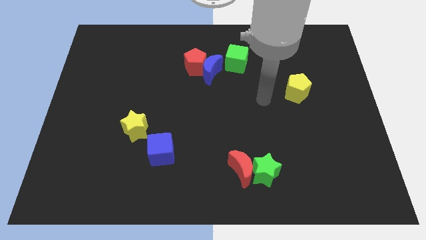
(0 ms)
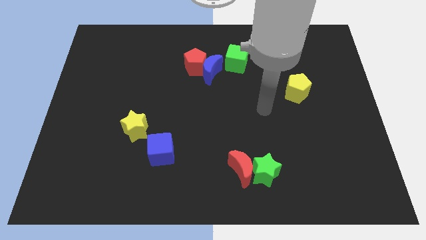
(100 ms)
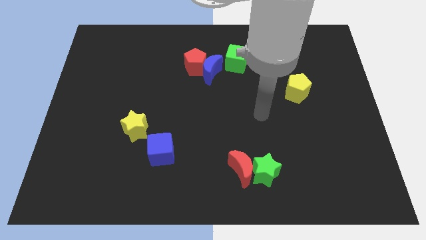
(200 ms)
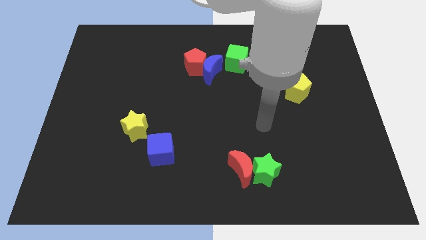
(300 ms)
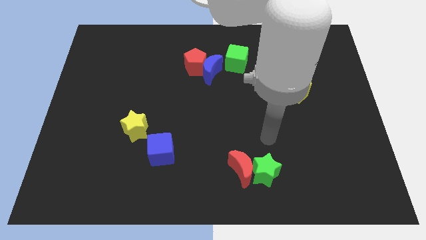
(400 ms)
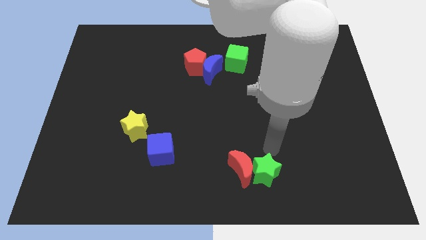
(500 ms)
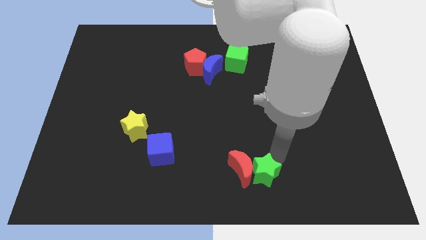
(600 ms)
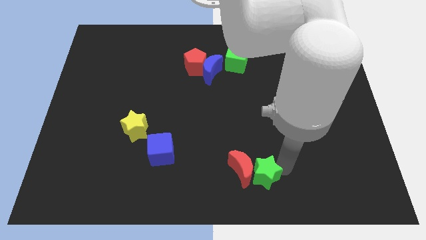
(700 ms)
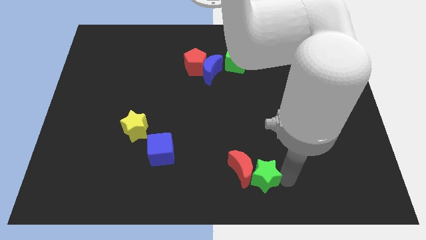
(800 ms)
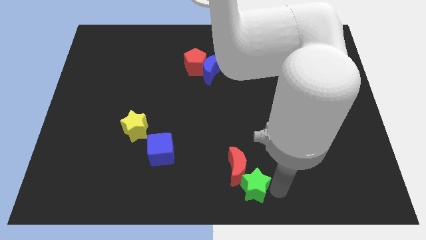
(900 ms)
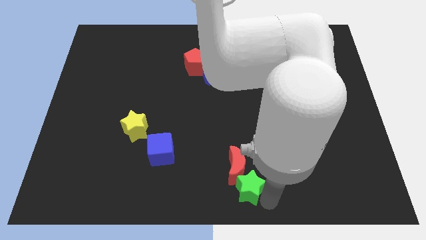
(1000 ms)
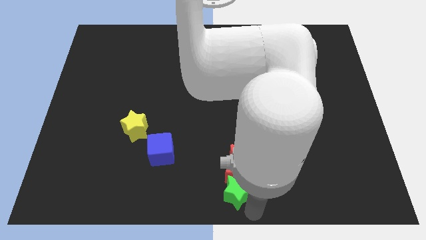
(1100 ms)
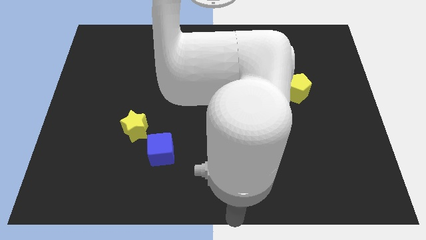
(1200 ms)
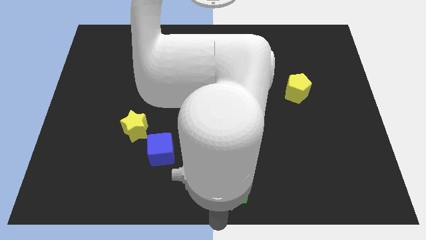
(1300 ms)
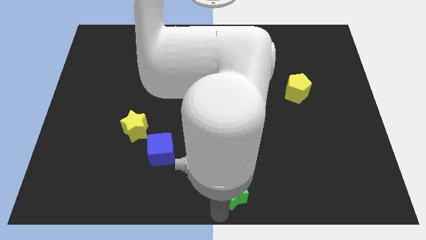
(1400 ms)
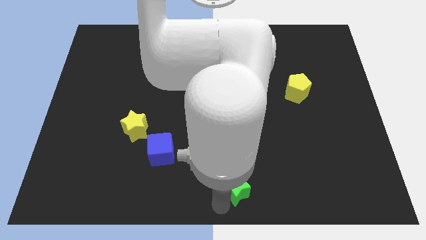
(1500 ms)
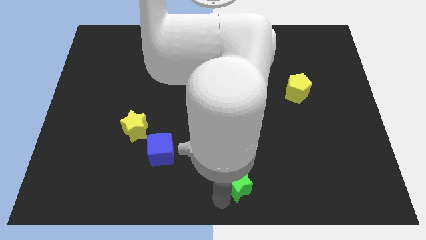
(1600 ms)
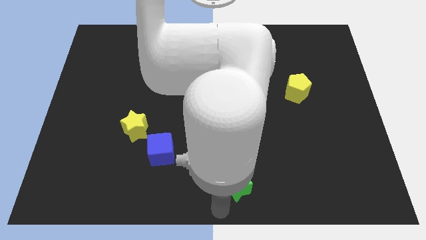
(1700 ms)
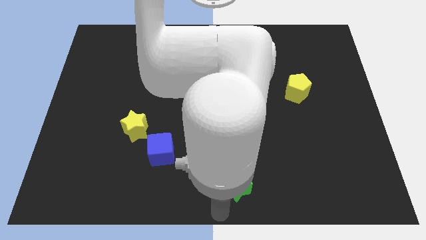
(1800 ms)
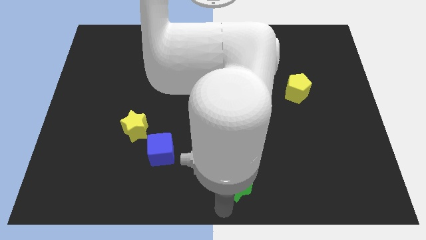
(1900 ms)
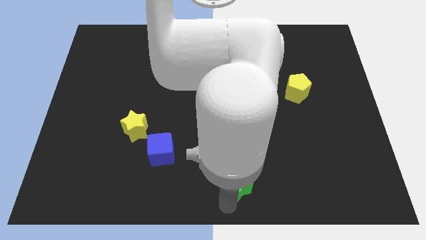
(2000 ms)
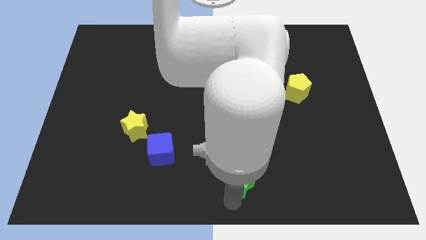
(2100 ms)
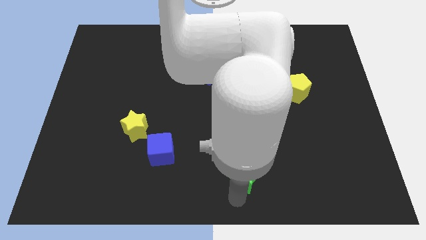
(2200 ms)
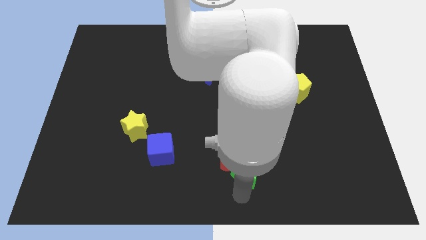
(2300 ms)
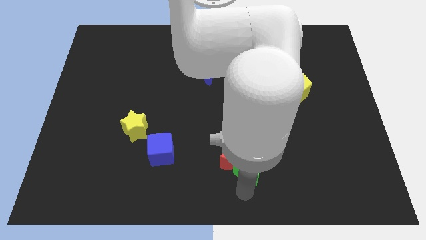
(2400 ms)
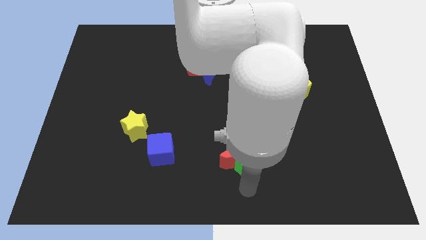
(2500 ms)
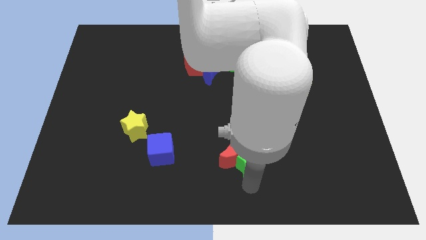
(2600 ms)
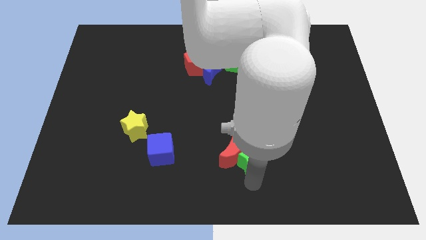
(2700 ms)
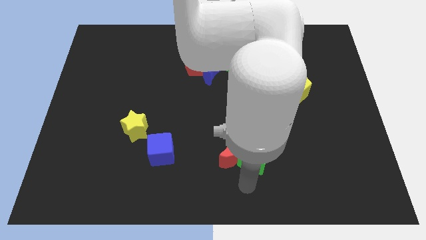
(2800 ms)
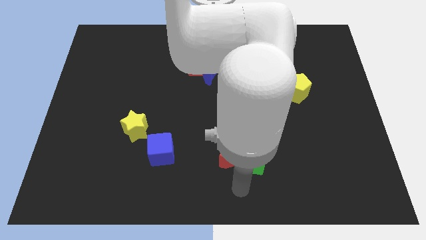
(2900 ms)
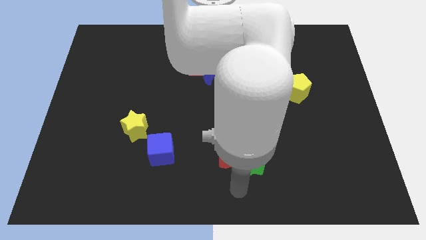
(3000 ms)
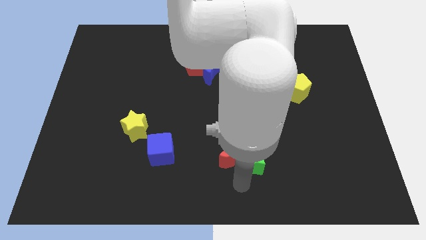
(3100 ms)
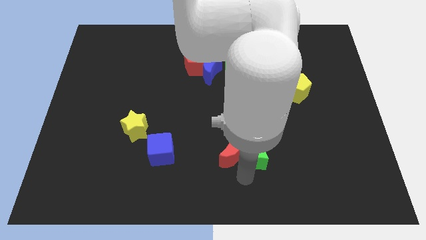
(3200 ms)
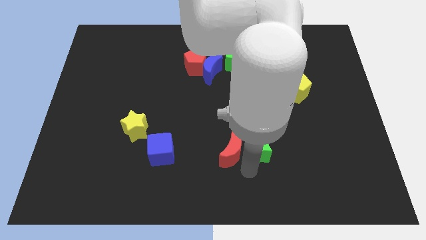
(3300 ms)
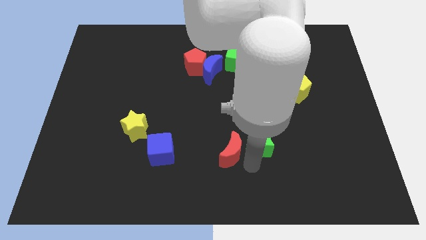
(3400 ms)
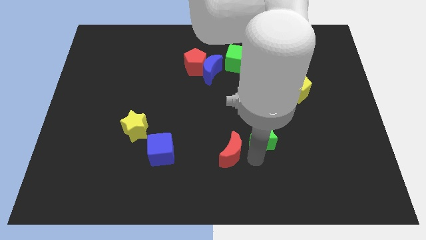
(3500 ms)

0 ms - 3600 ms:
slightly move the green star upwards

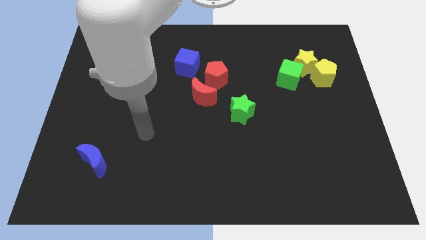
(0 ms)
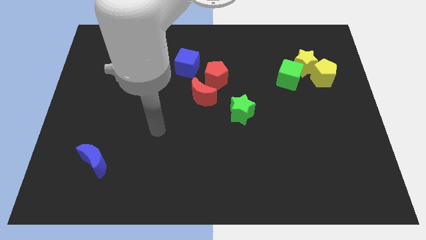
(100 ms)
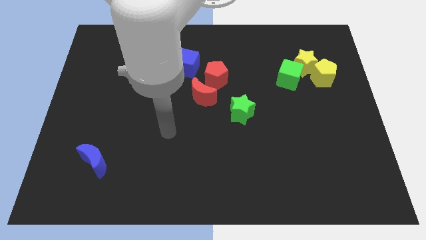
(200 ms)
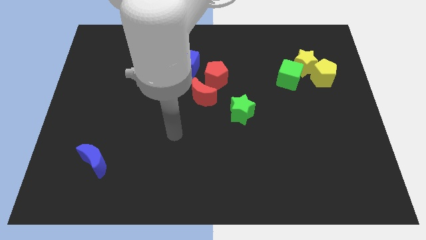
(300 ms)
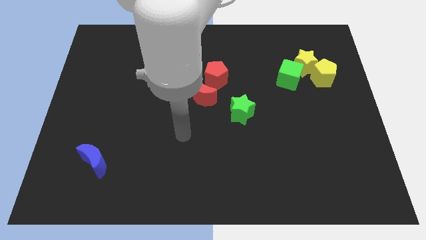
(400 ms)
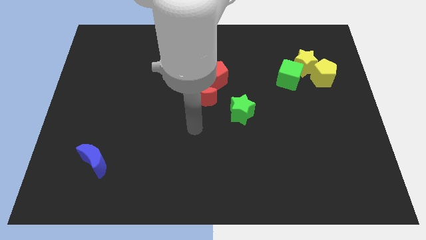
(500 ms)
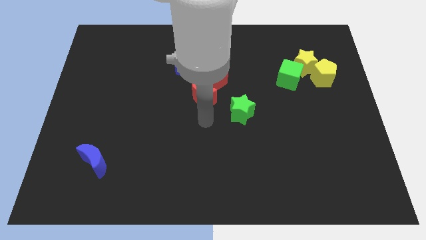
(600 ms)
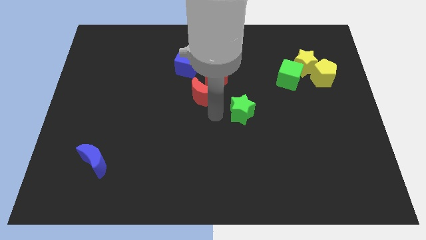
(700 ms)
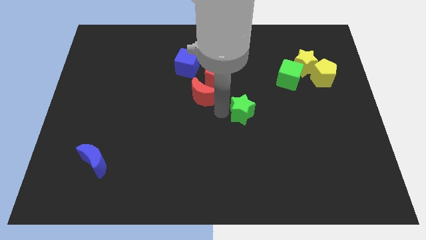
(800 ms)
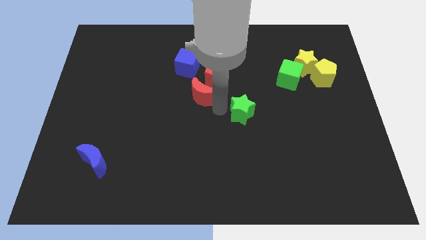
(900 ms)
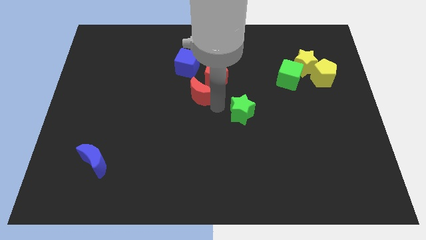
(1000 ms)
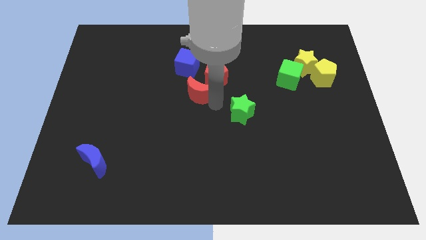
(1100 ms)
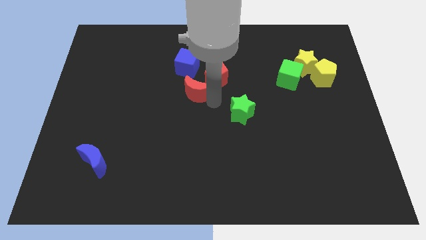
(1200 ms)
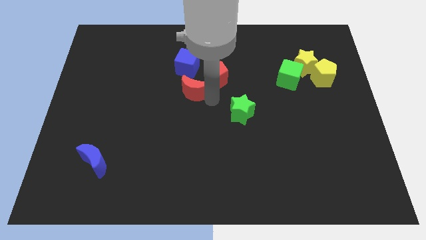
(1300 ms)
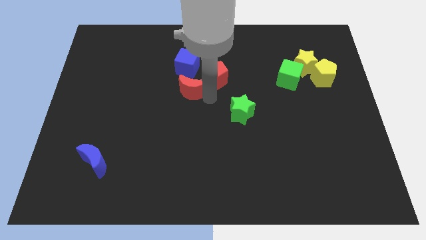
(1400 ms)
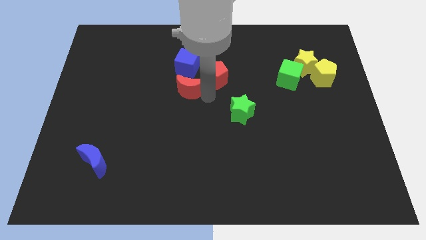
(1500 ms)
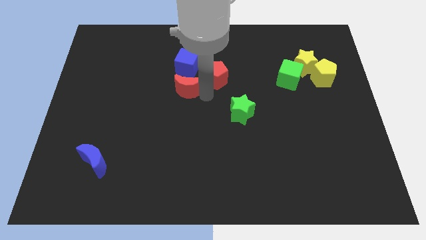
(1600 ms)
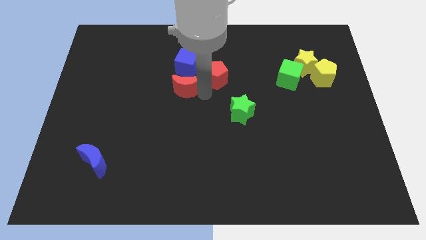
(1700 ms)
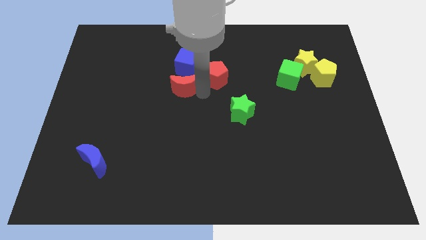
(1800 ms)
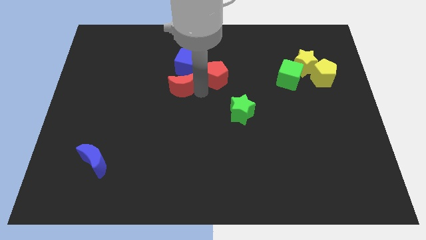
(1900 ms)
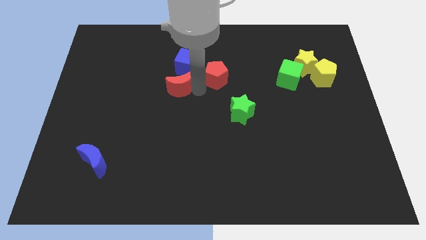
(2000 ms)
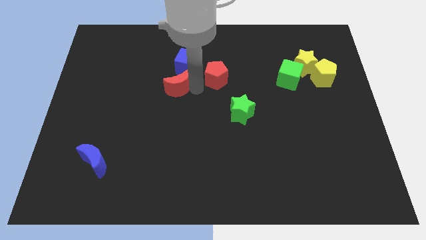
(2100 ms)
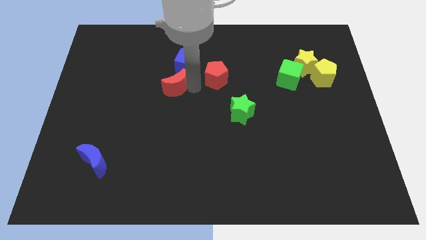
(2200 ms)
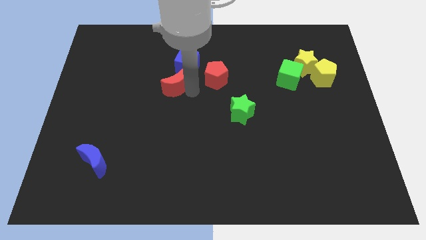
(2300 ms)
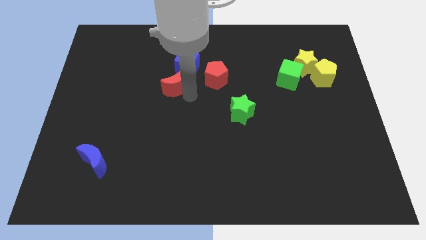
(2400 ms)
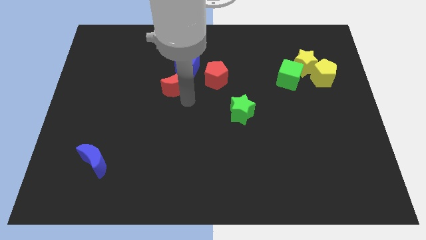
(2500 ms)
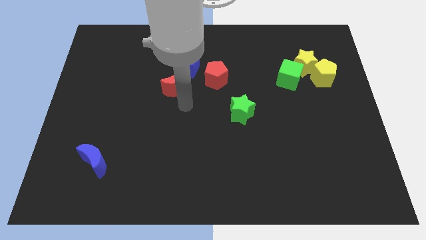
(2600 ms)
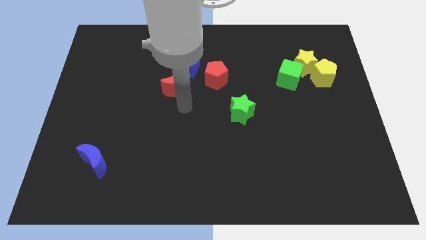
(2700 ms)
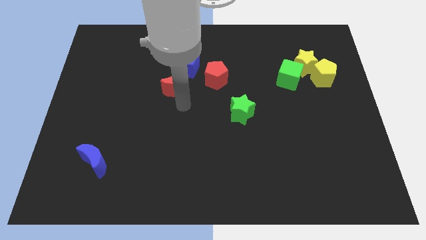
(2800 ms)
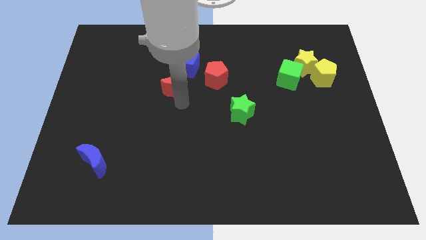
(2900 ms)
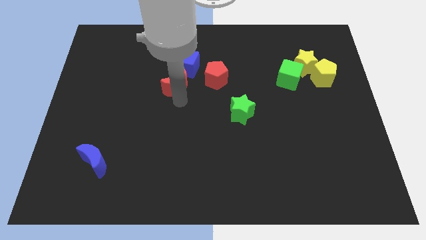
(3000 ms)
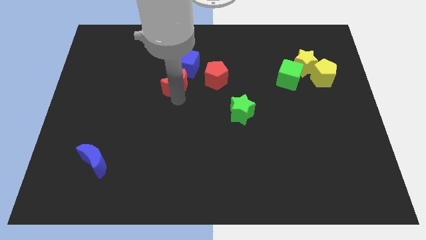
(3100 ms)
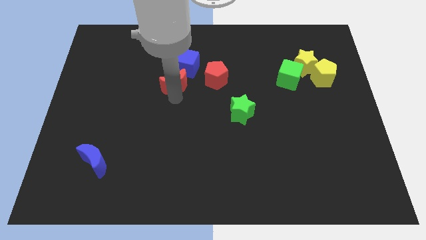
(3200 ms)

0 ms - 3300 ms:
slightly push the red moon up and left

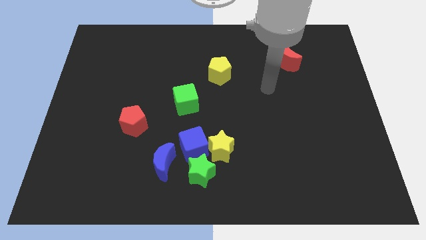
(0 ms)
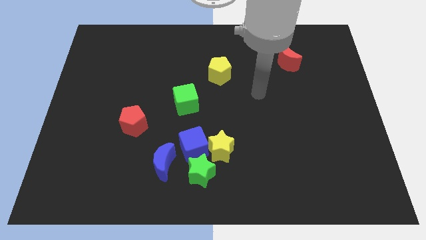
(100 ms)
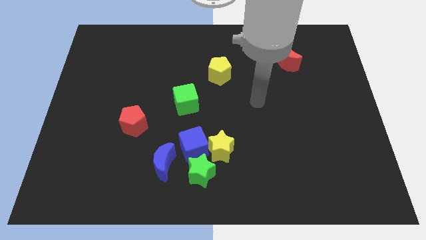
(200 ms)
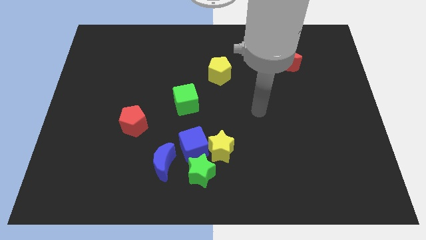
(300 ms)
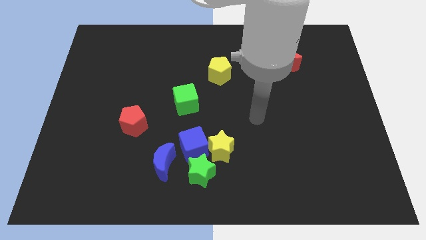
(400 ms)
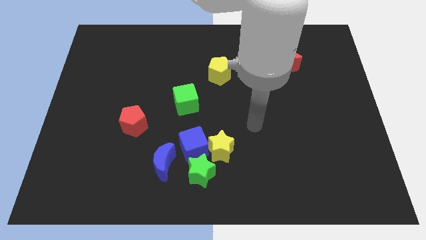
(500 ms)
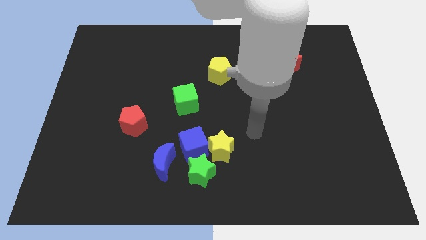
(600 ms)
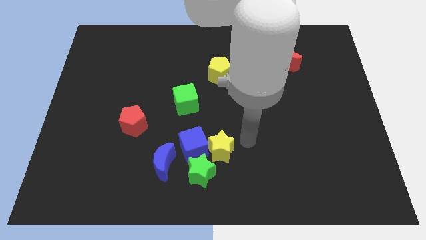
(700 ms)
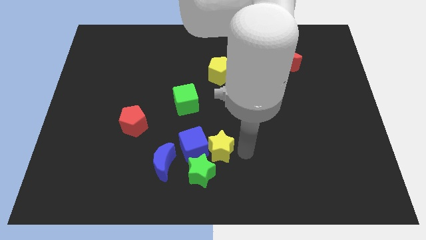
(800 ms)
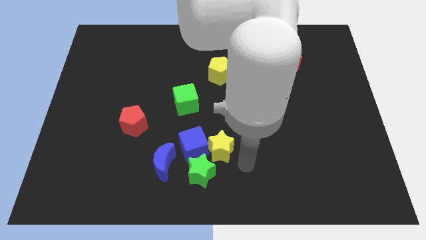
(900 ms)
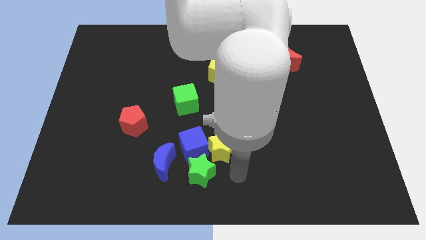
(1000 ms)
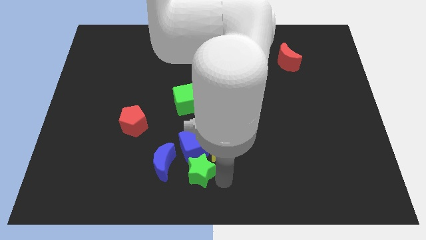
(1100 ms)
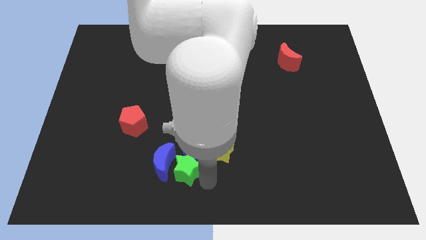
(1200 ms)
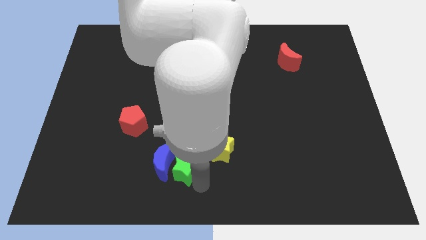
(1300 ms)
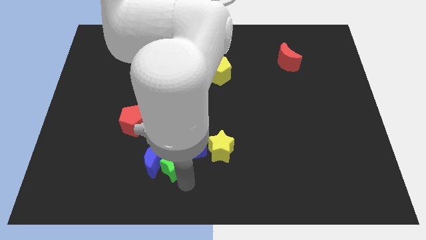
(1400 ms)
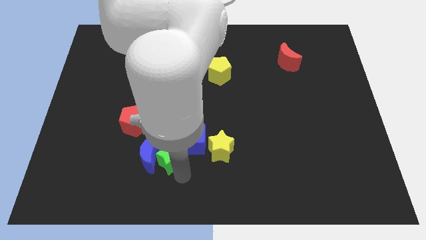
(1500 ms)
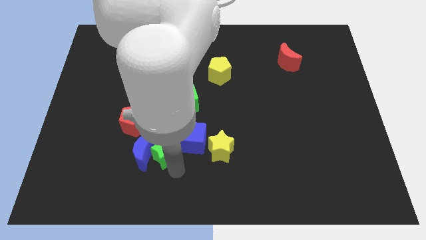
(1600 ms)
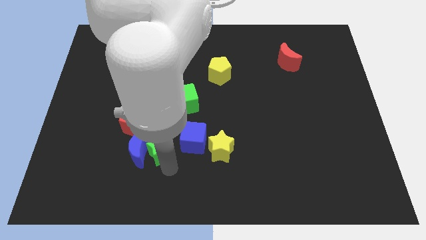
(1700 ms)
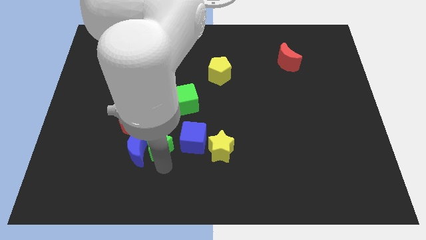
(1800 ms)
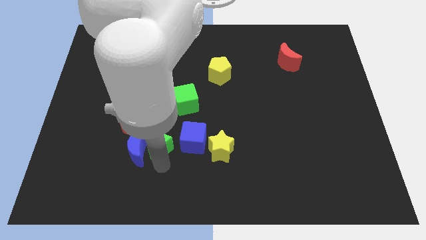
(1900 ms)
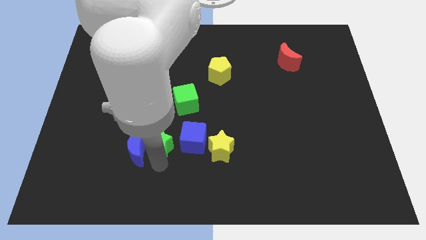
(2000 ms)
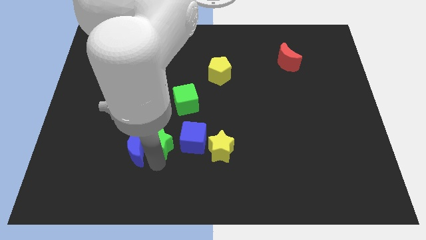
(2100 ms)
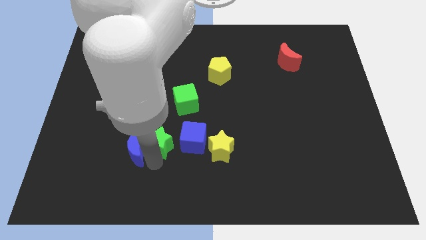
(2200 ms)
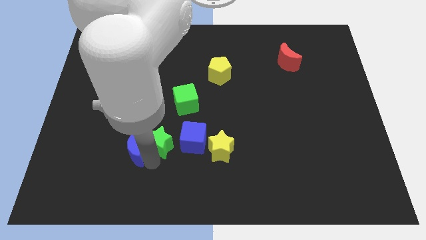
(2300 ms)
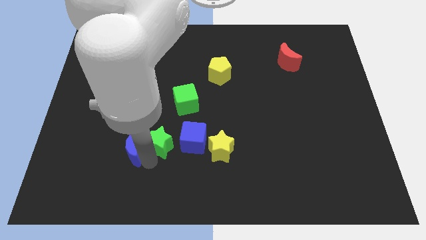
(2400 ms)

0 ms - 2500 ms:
slightly push the blue moon upwards and then to the left
